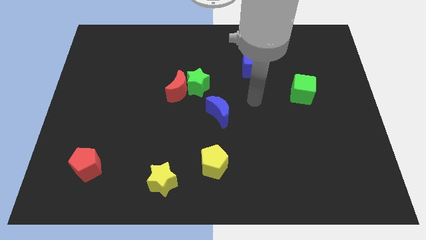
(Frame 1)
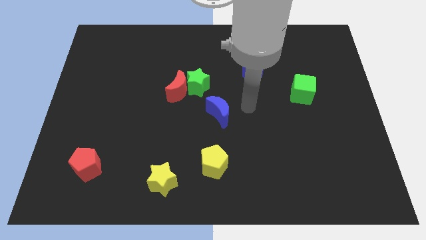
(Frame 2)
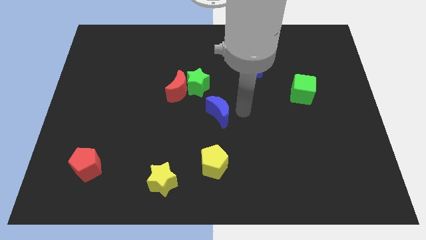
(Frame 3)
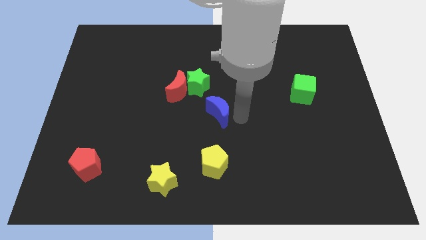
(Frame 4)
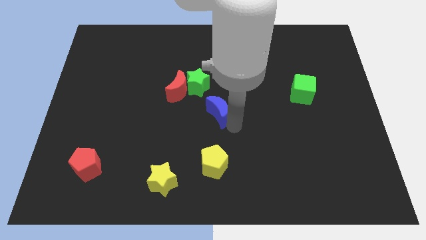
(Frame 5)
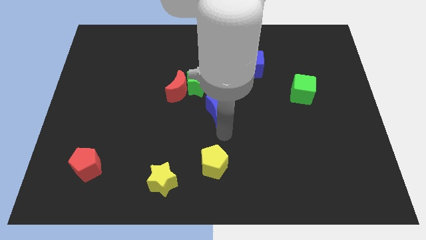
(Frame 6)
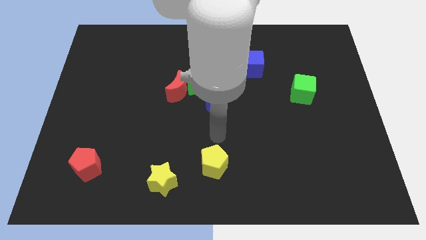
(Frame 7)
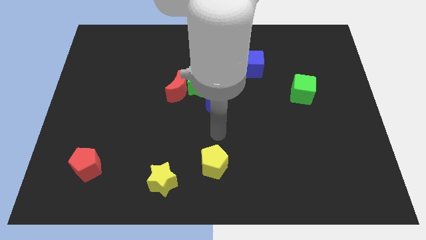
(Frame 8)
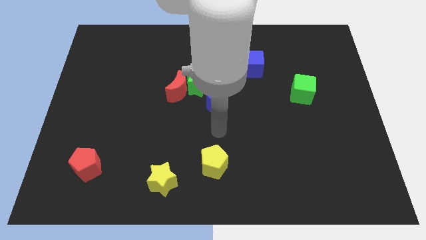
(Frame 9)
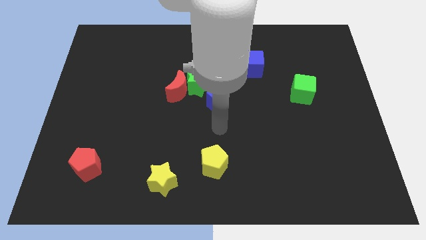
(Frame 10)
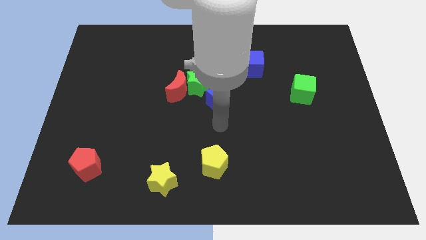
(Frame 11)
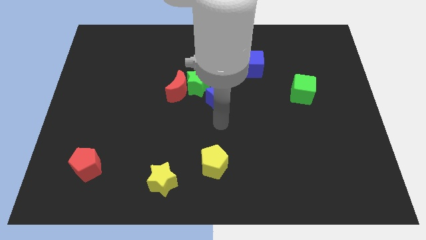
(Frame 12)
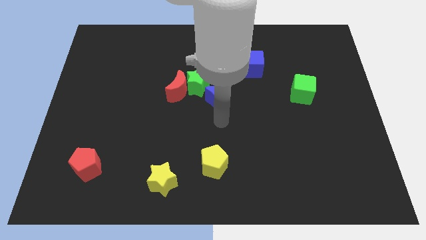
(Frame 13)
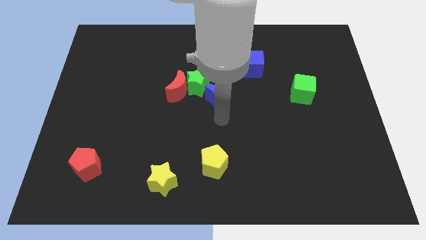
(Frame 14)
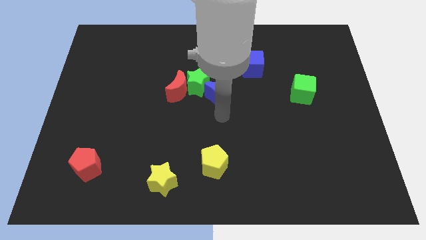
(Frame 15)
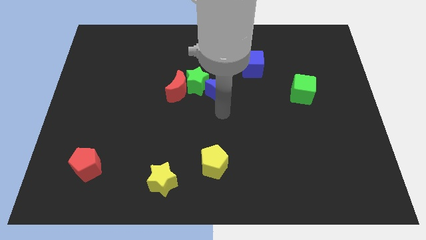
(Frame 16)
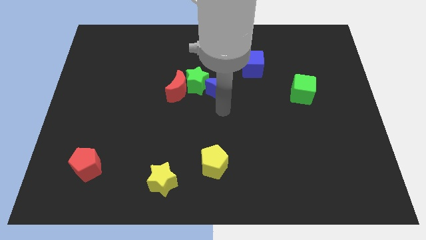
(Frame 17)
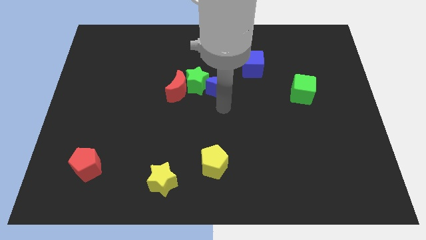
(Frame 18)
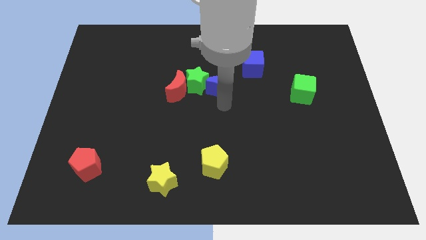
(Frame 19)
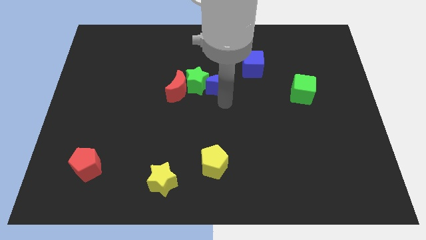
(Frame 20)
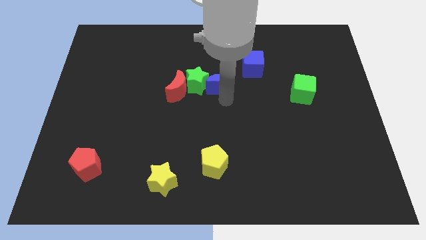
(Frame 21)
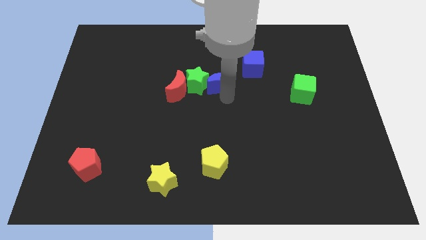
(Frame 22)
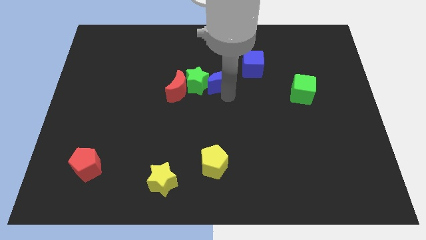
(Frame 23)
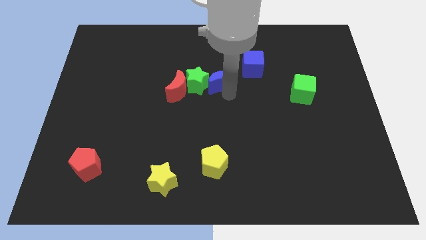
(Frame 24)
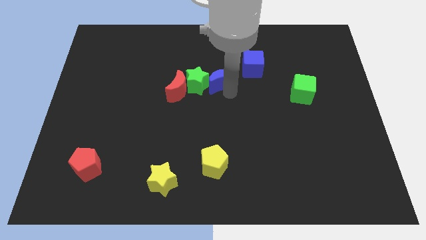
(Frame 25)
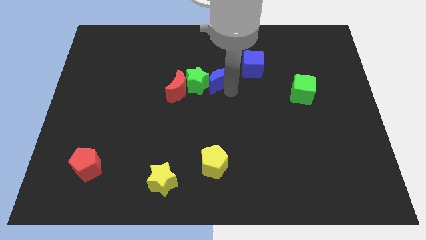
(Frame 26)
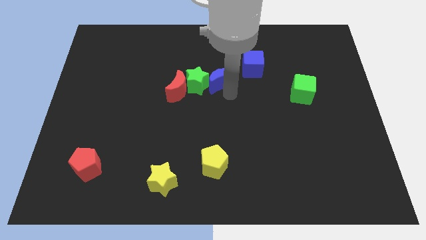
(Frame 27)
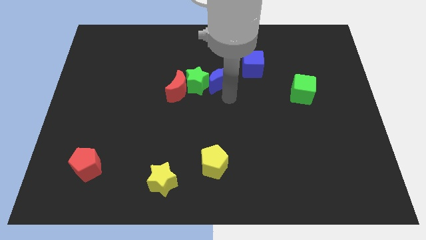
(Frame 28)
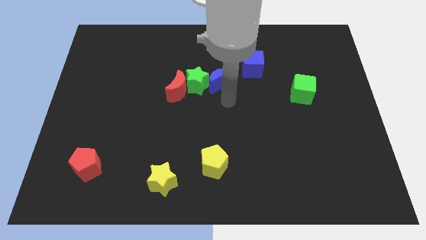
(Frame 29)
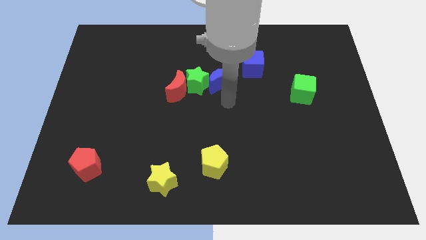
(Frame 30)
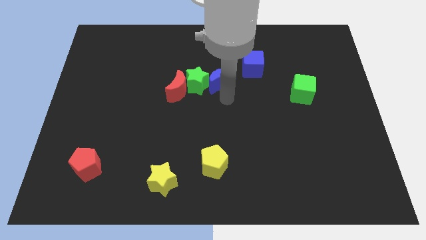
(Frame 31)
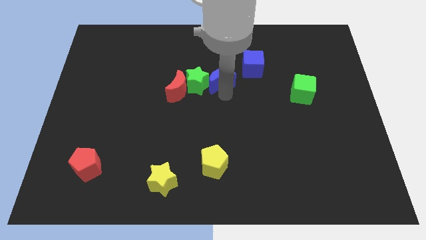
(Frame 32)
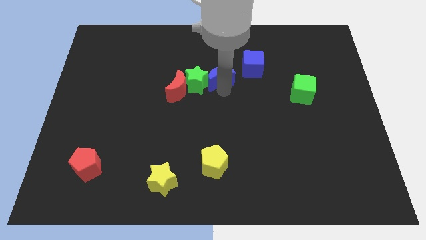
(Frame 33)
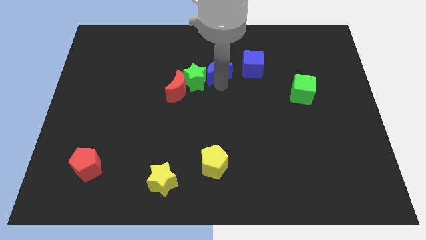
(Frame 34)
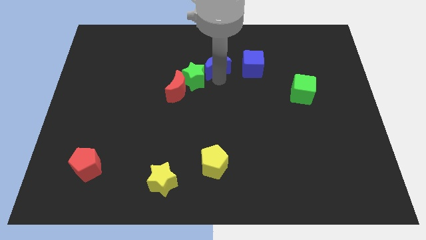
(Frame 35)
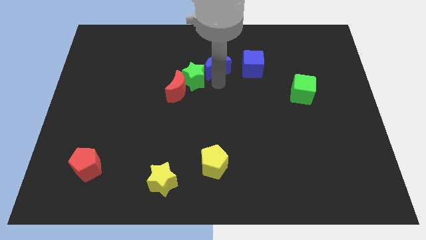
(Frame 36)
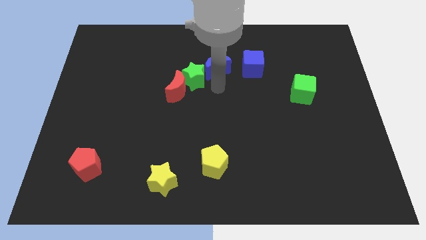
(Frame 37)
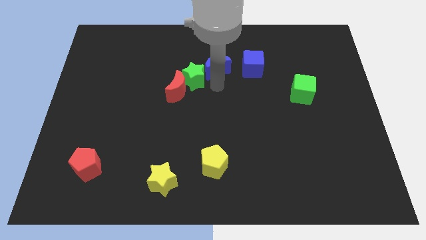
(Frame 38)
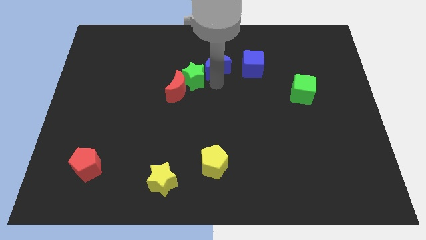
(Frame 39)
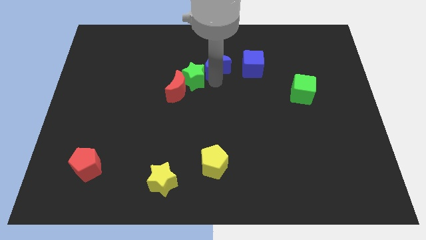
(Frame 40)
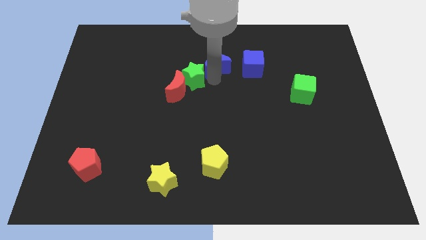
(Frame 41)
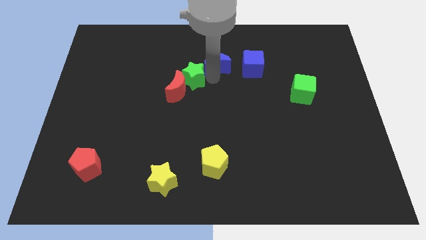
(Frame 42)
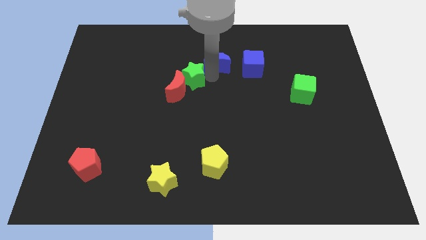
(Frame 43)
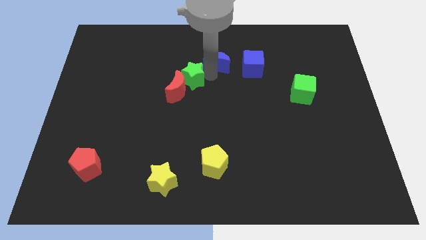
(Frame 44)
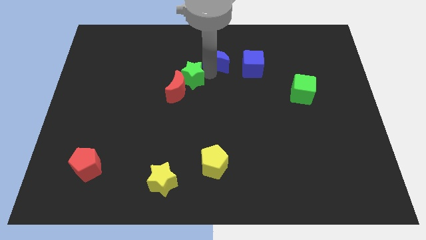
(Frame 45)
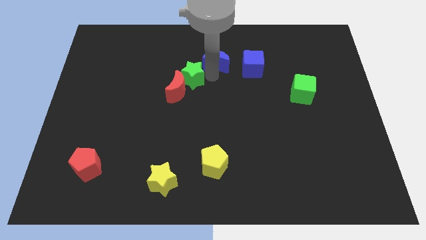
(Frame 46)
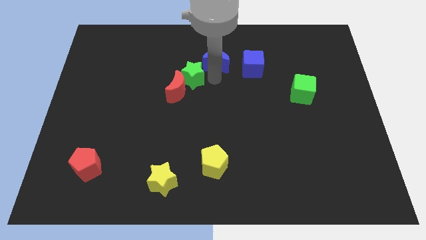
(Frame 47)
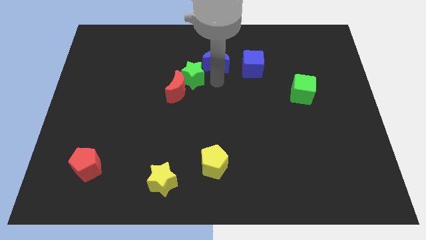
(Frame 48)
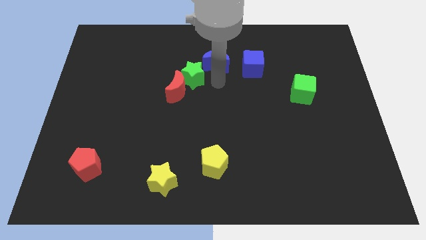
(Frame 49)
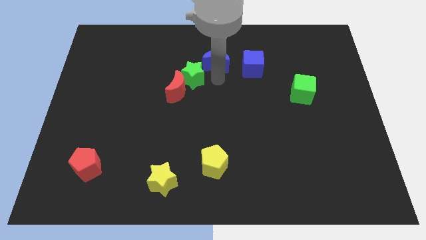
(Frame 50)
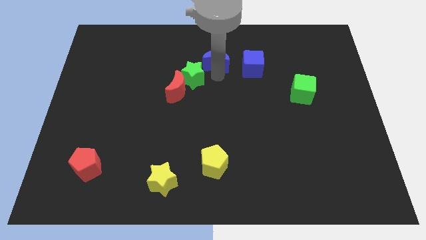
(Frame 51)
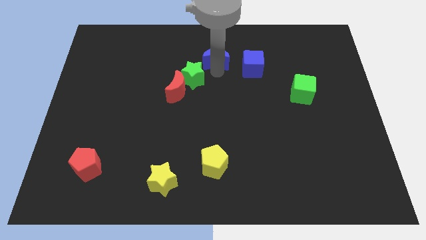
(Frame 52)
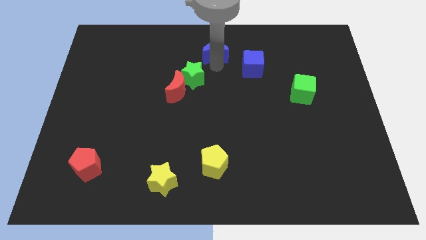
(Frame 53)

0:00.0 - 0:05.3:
slide the blue moon to the towards your base

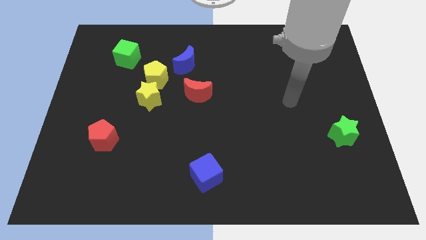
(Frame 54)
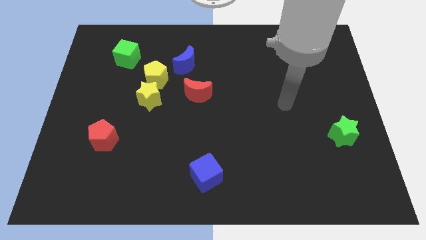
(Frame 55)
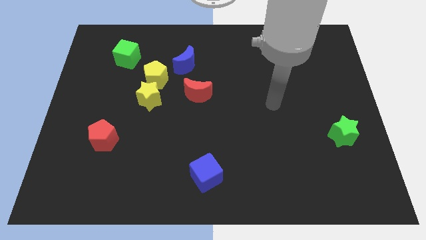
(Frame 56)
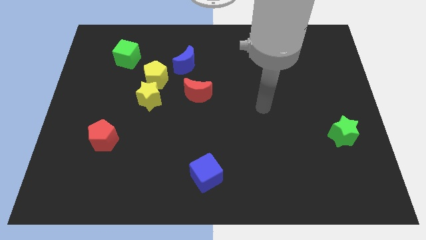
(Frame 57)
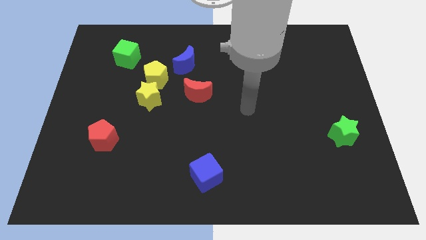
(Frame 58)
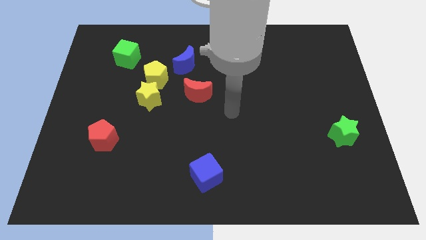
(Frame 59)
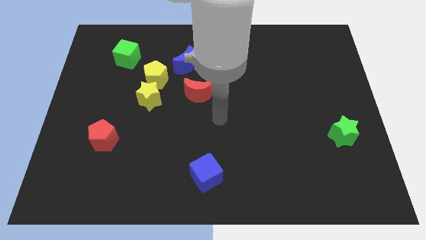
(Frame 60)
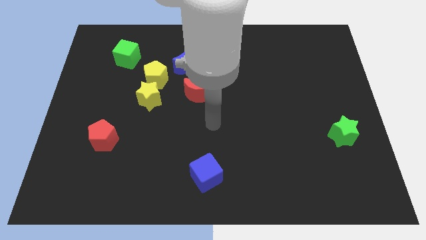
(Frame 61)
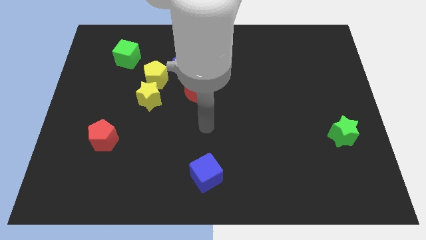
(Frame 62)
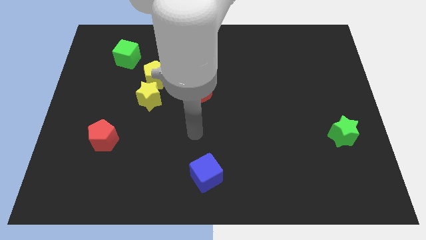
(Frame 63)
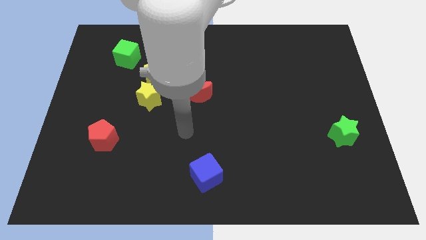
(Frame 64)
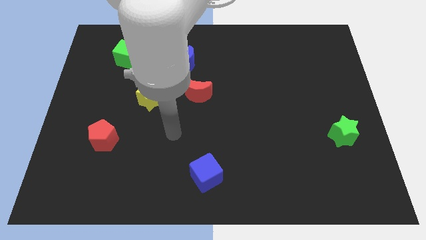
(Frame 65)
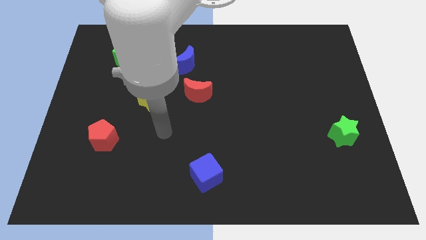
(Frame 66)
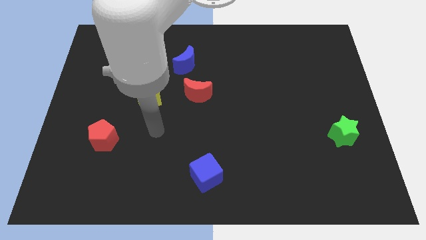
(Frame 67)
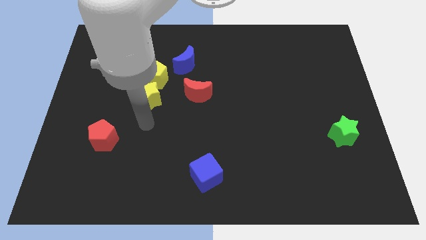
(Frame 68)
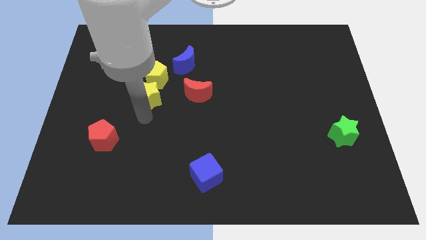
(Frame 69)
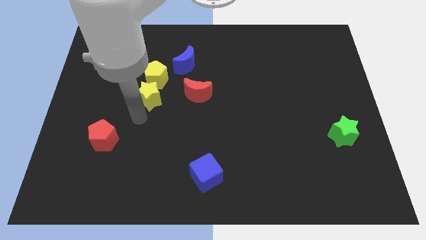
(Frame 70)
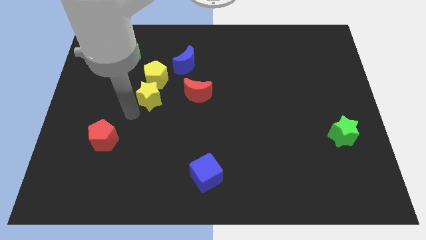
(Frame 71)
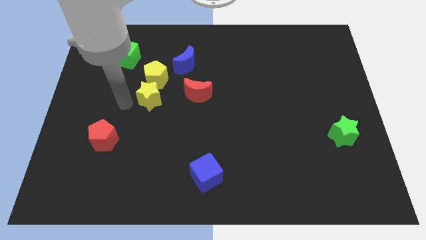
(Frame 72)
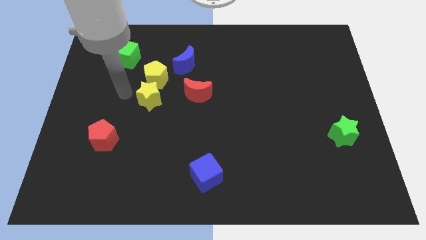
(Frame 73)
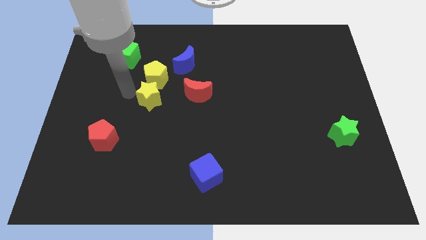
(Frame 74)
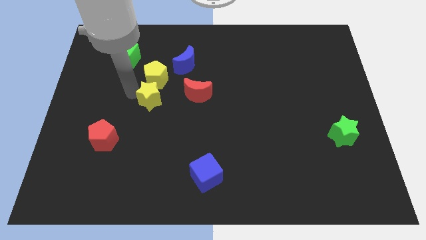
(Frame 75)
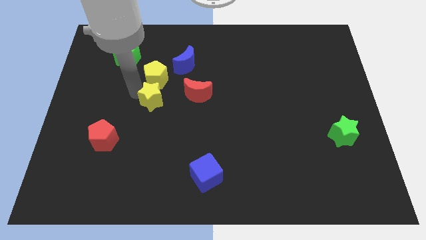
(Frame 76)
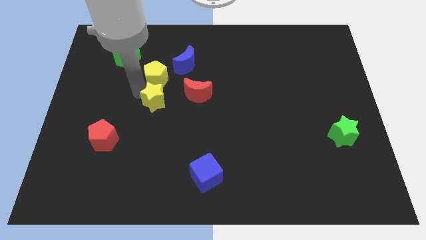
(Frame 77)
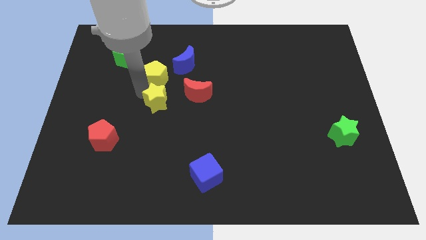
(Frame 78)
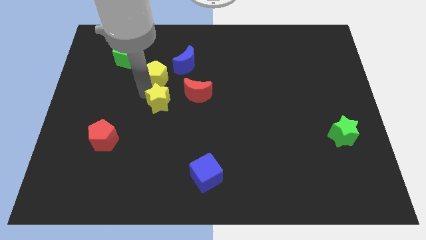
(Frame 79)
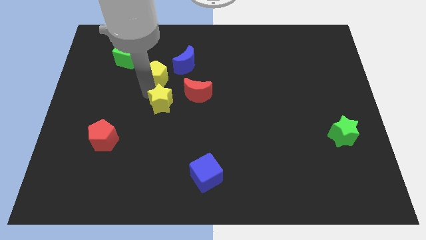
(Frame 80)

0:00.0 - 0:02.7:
move the yellow star to the center
